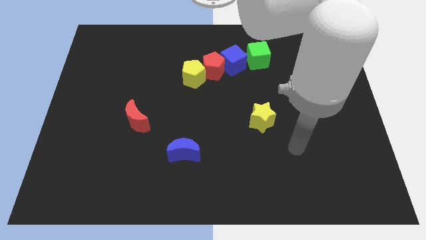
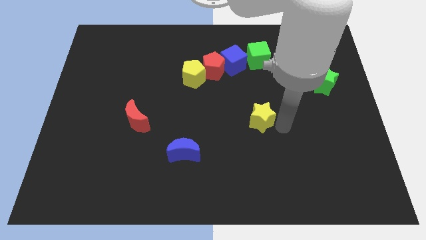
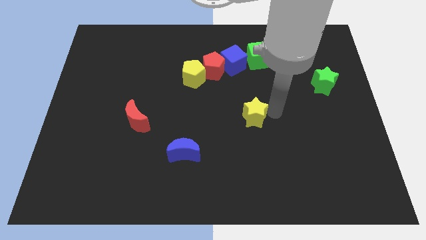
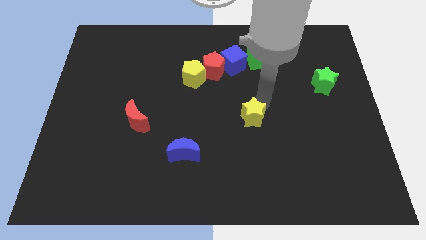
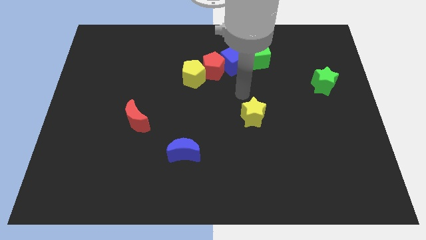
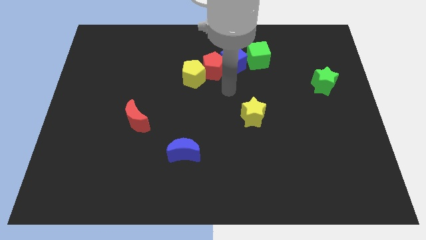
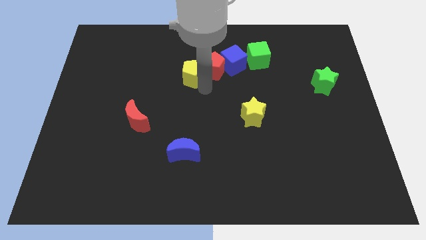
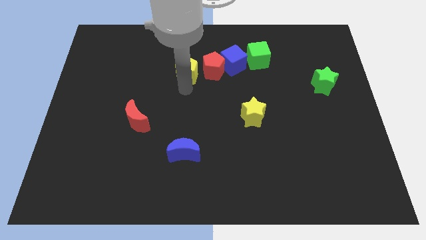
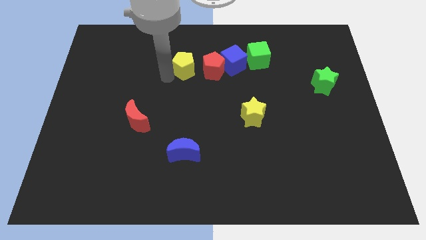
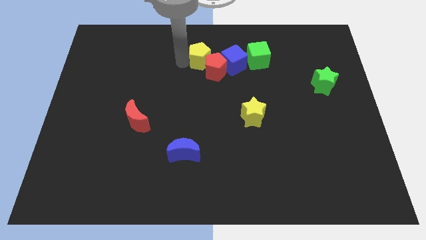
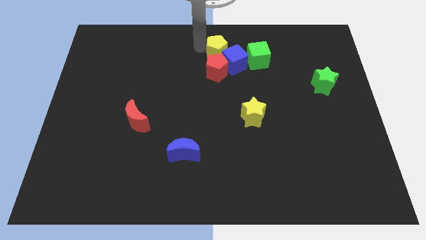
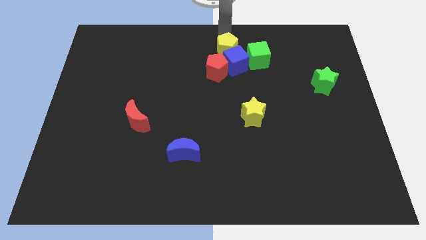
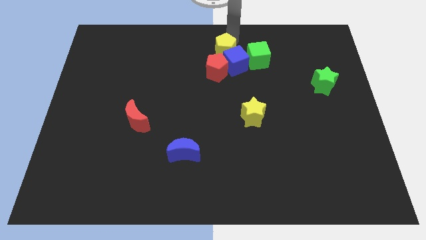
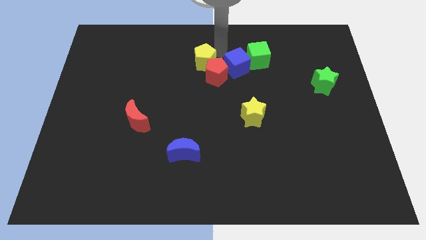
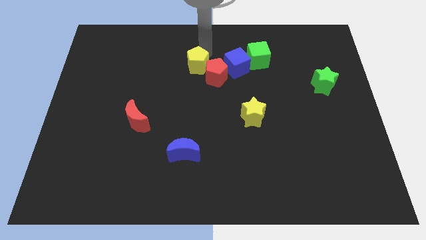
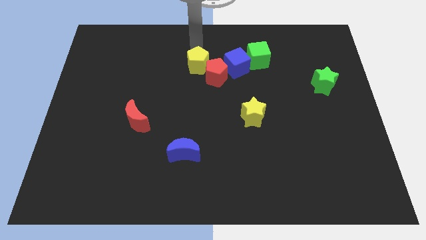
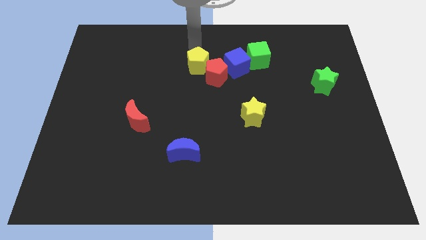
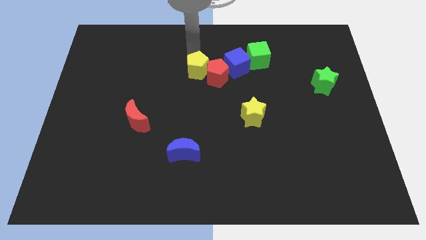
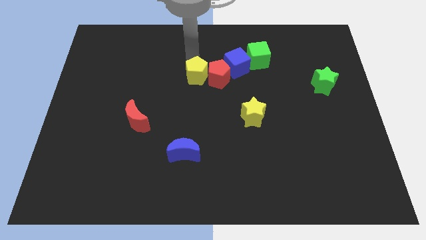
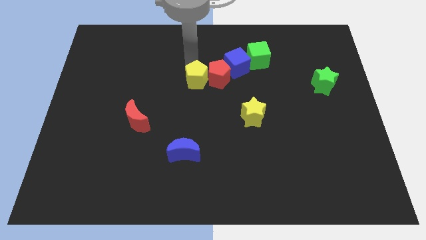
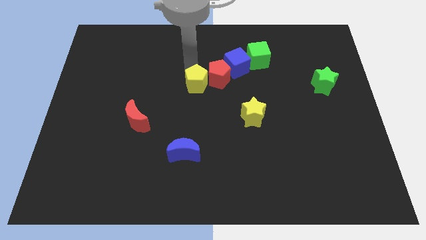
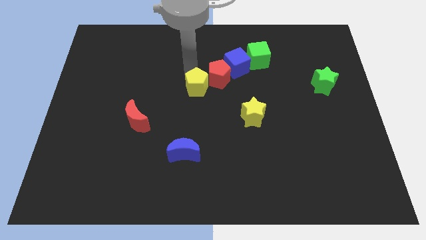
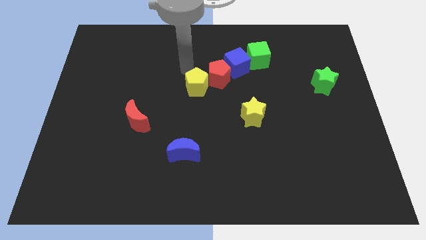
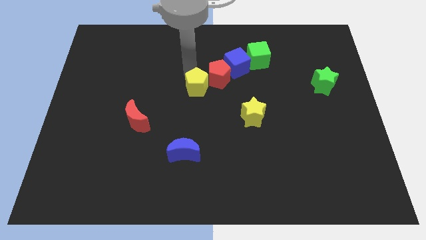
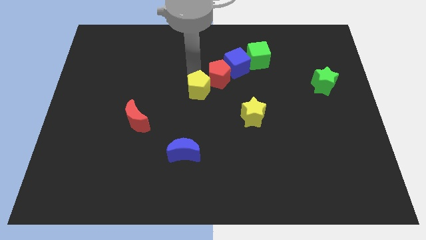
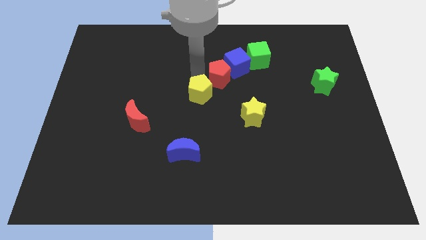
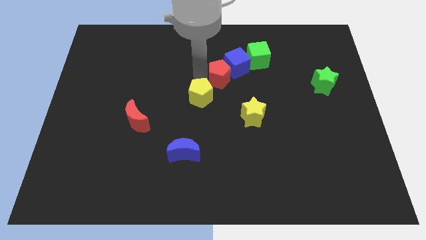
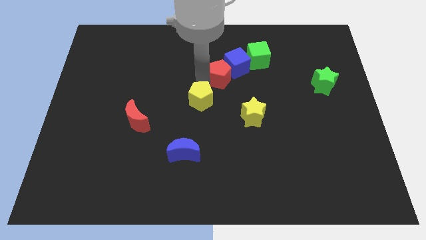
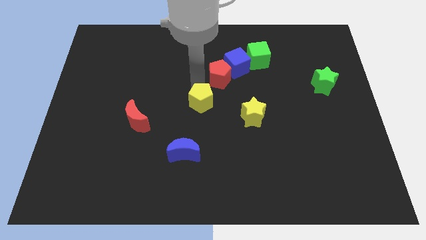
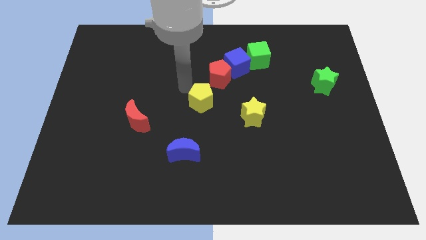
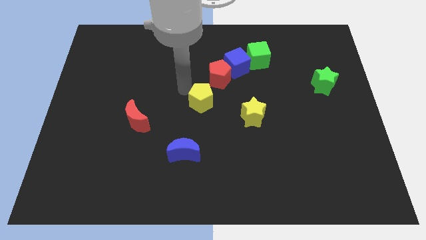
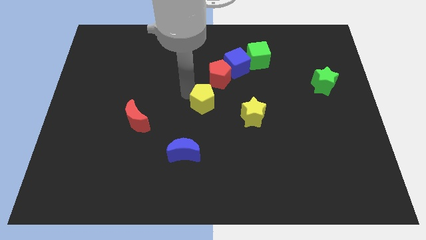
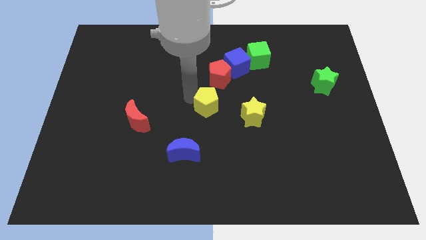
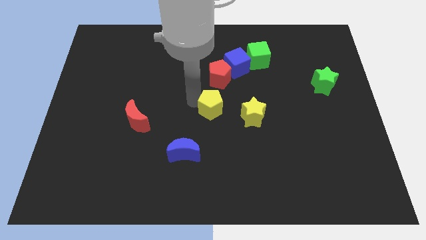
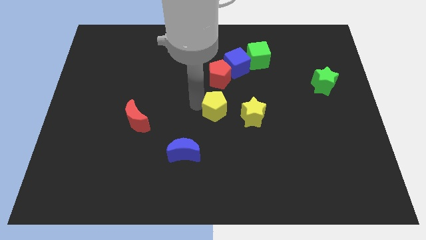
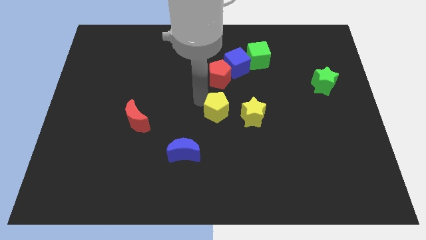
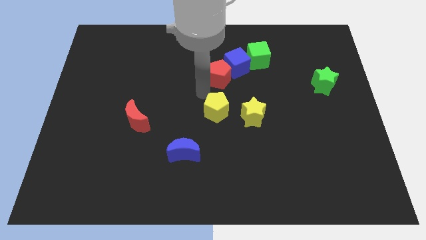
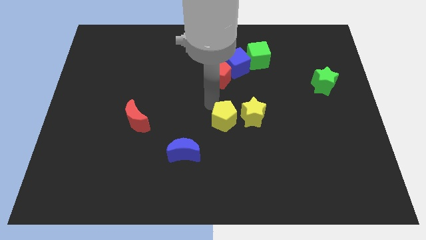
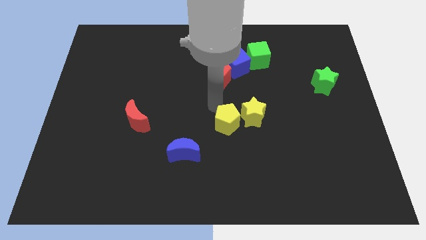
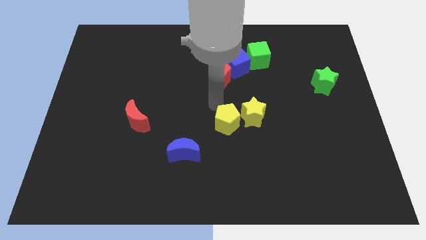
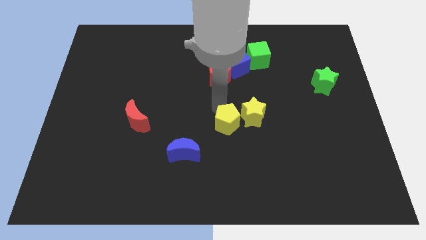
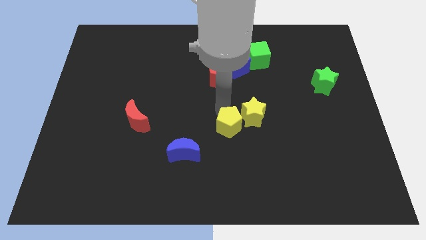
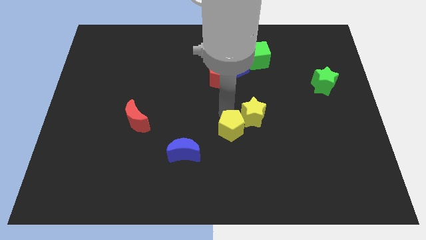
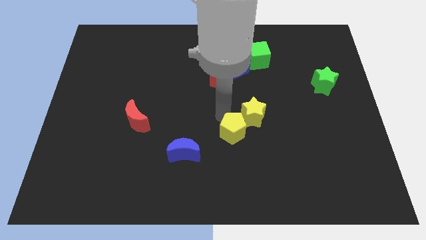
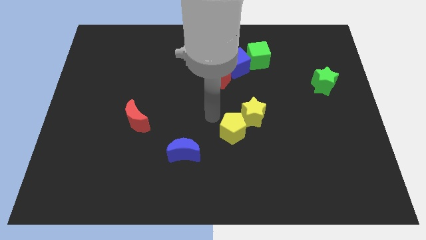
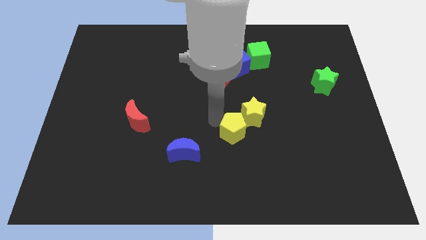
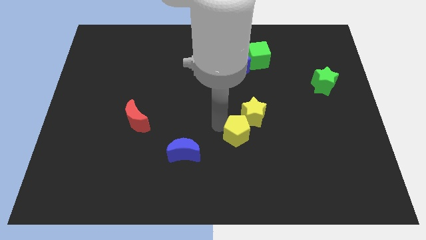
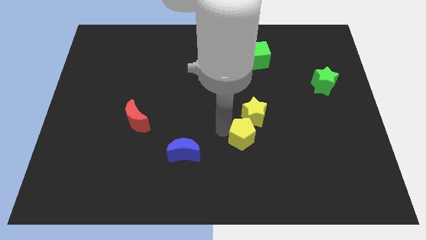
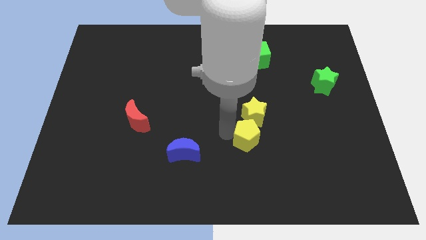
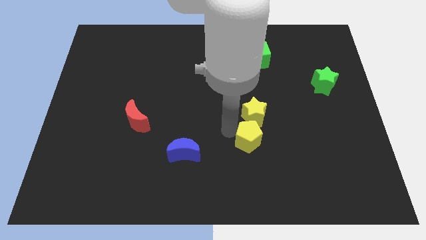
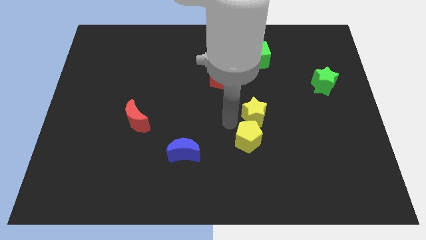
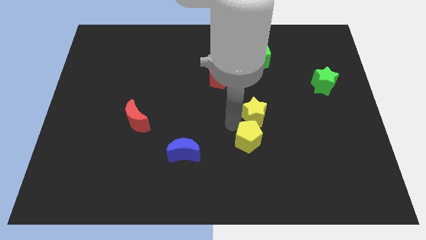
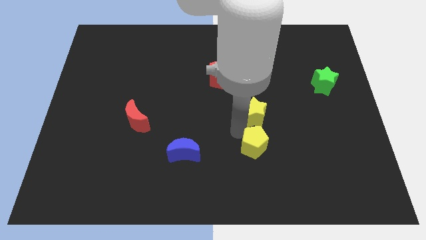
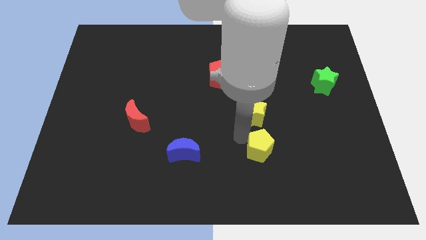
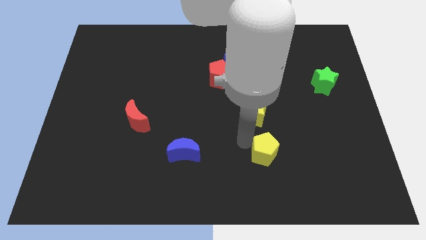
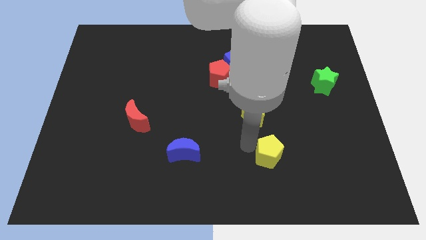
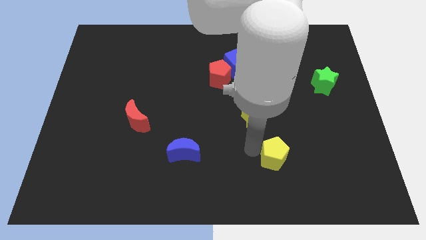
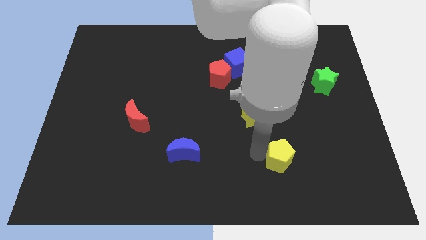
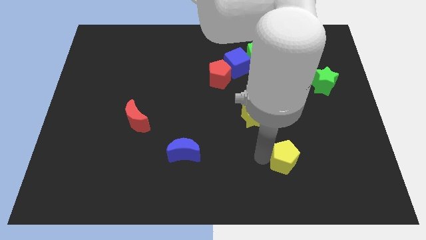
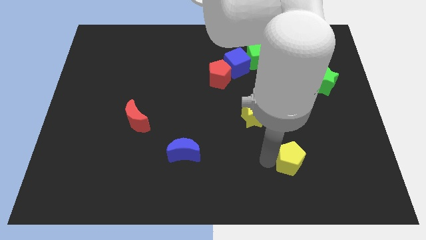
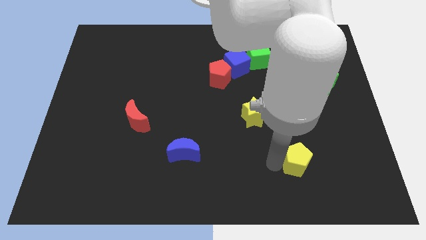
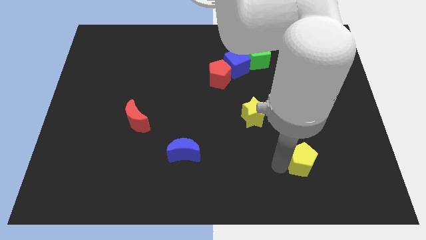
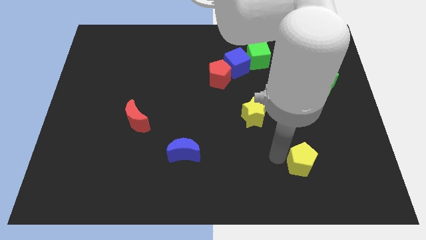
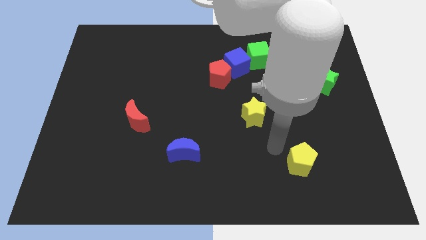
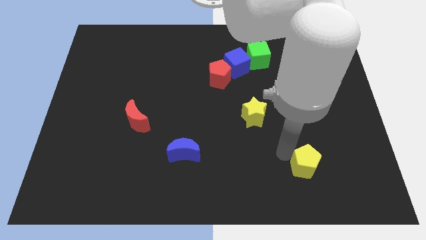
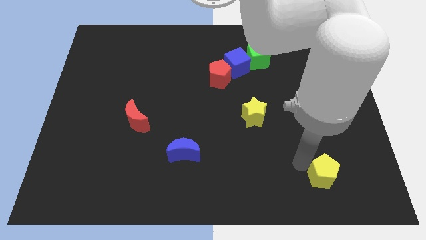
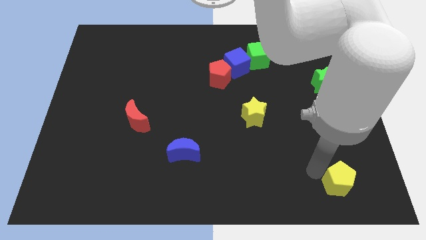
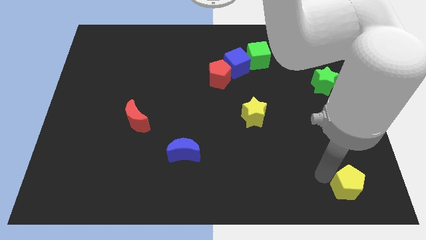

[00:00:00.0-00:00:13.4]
slide the yellow pentagon to the bottom right corner
